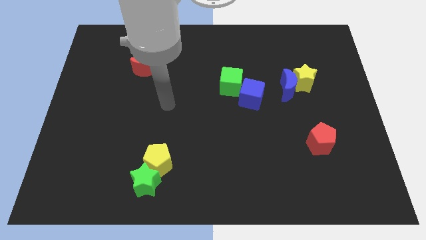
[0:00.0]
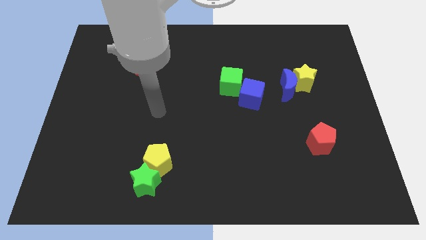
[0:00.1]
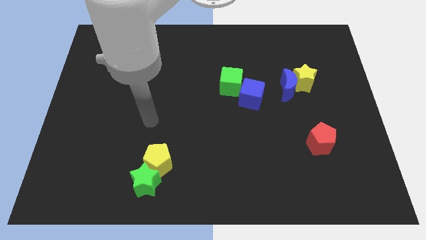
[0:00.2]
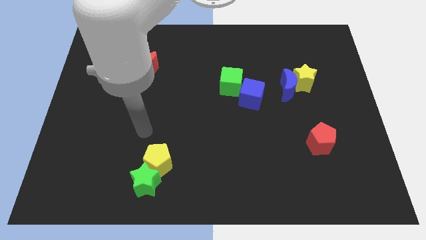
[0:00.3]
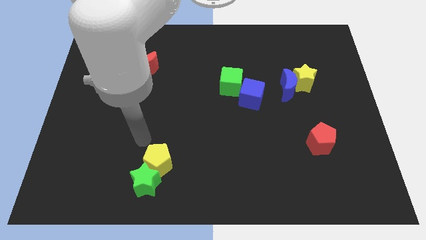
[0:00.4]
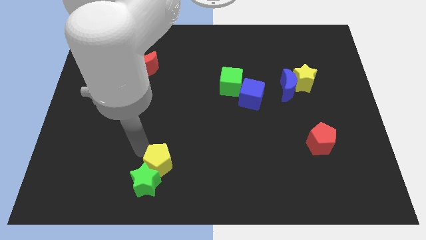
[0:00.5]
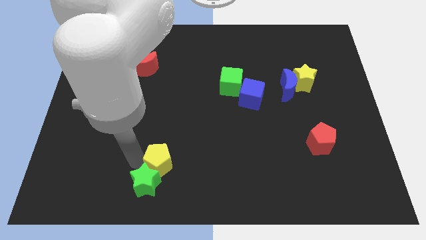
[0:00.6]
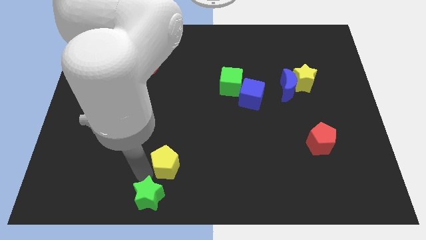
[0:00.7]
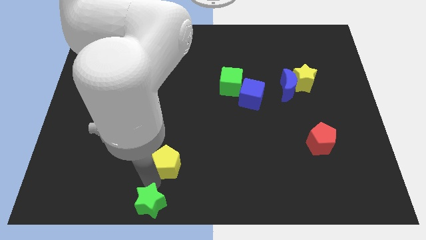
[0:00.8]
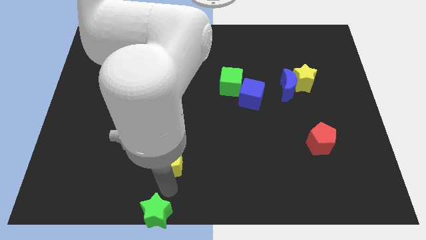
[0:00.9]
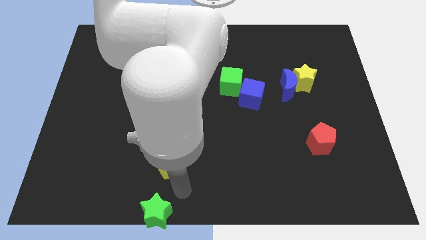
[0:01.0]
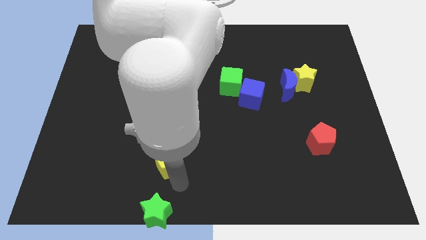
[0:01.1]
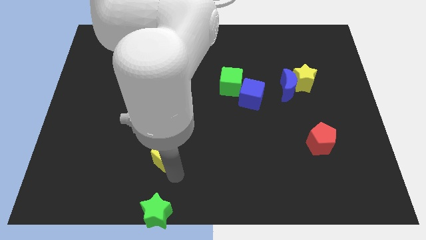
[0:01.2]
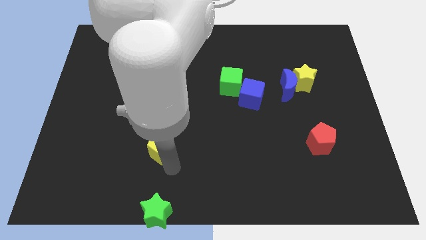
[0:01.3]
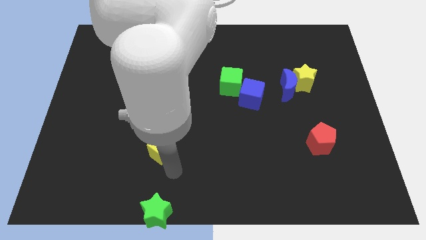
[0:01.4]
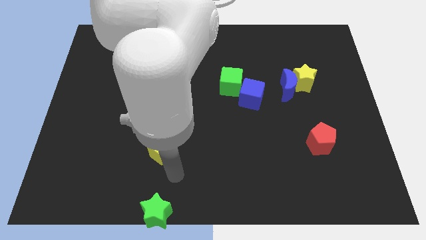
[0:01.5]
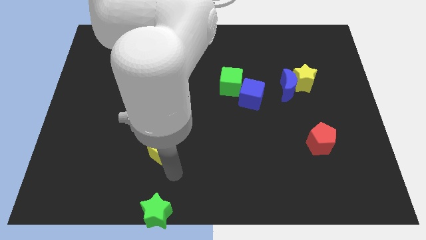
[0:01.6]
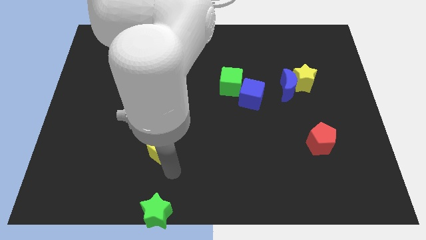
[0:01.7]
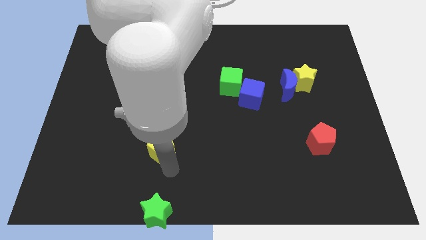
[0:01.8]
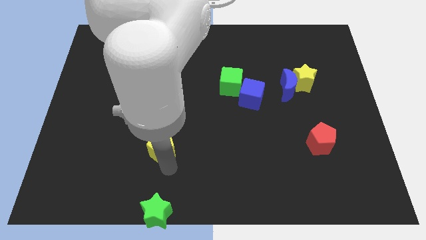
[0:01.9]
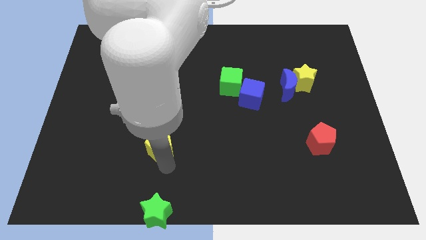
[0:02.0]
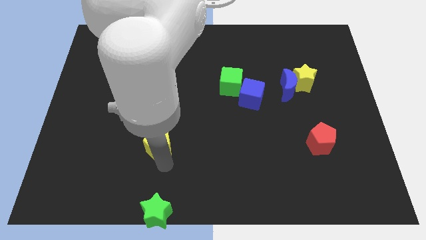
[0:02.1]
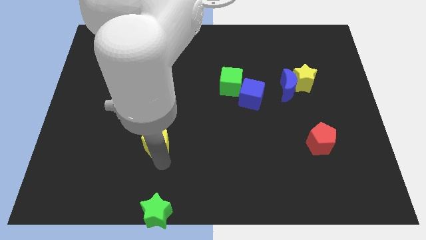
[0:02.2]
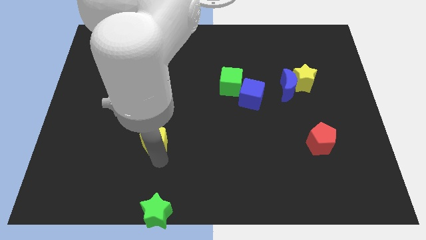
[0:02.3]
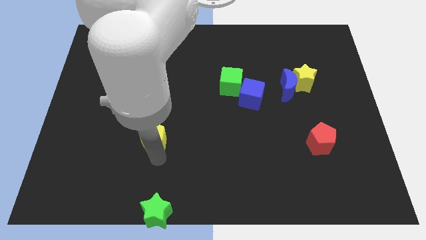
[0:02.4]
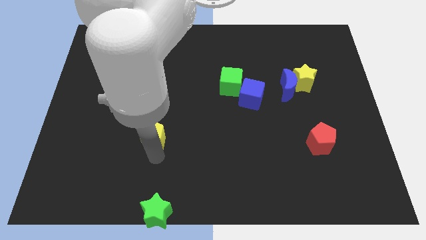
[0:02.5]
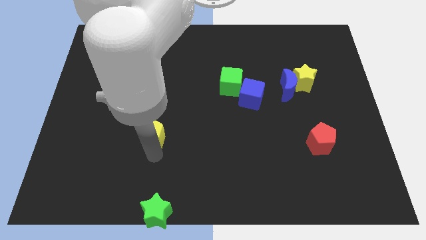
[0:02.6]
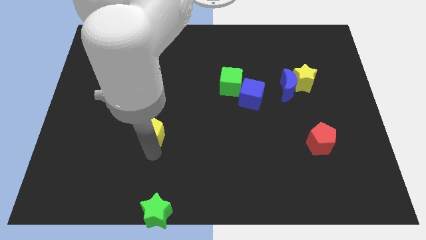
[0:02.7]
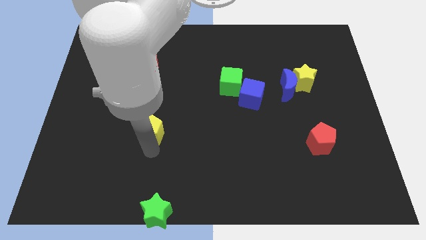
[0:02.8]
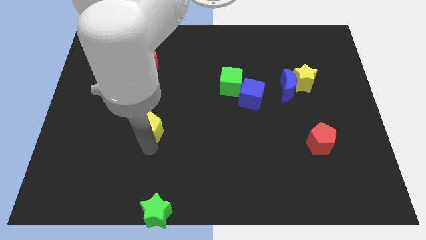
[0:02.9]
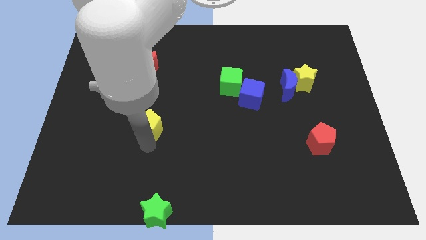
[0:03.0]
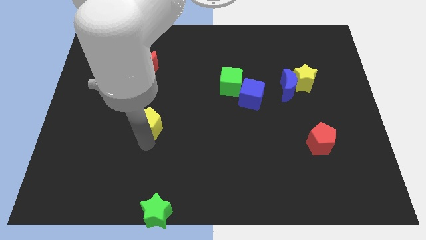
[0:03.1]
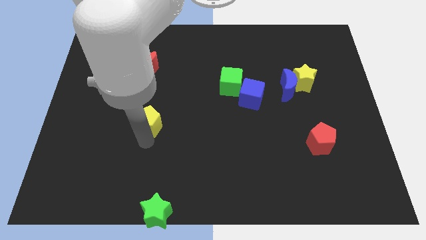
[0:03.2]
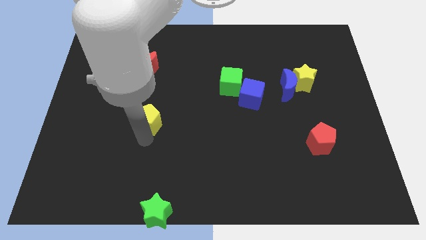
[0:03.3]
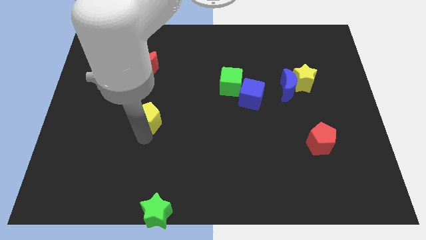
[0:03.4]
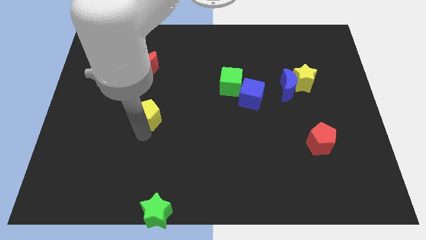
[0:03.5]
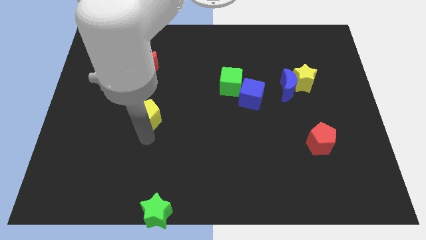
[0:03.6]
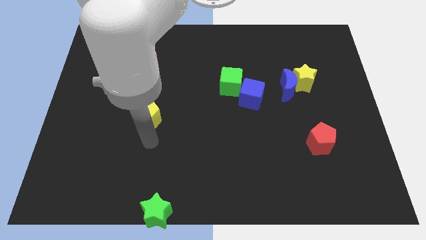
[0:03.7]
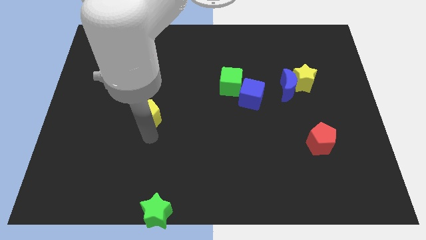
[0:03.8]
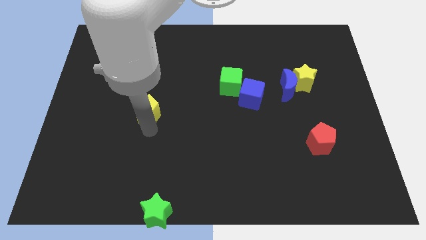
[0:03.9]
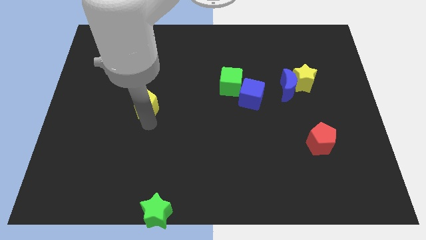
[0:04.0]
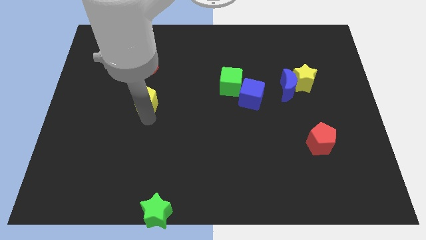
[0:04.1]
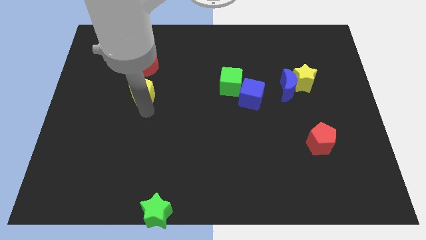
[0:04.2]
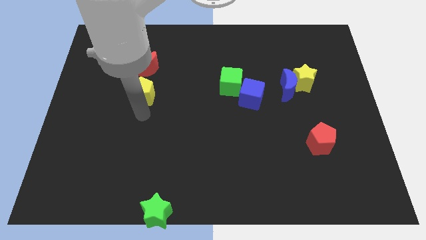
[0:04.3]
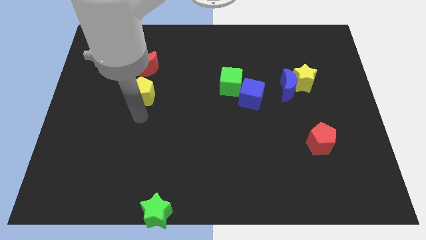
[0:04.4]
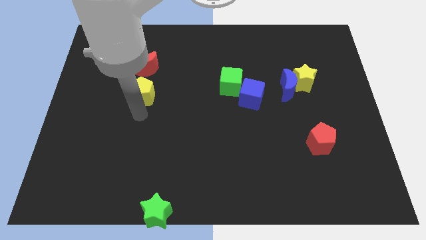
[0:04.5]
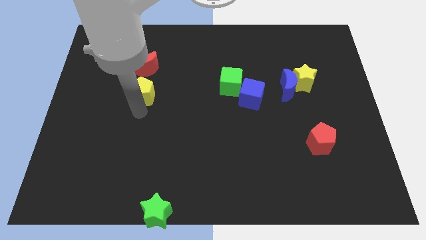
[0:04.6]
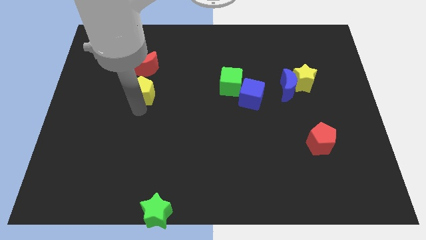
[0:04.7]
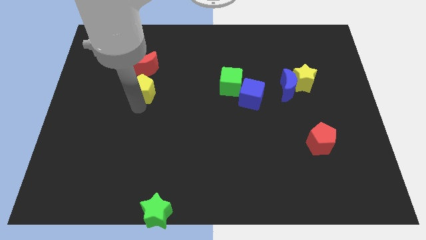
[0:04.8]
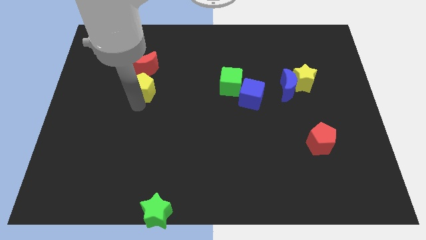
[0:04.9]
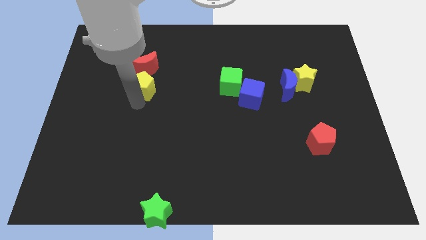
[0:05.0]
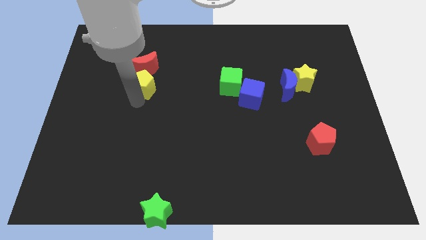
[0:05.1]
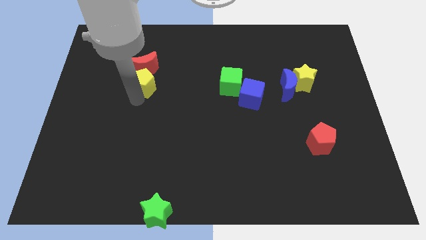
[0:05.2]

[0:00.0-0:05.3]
slide the yellow pentagon next to the red moon
